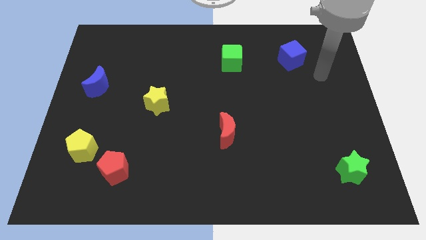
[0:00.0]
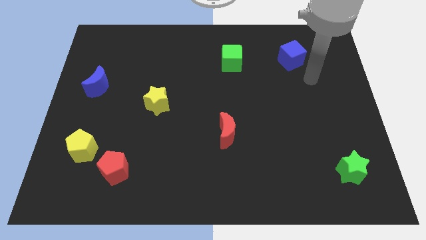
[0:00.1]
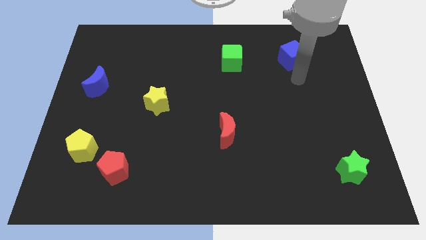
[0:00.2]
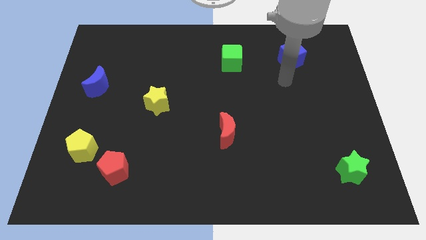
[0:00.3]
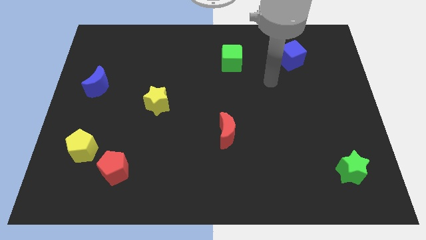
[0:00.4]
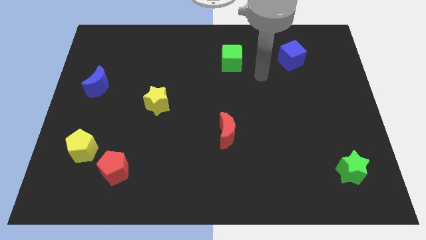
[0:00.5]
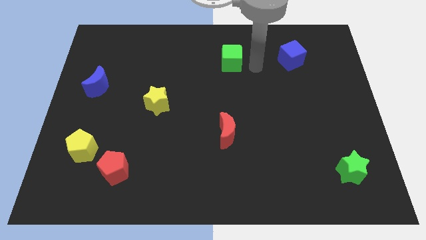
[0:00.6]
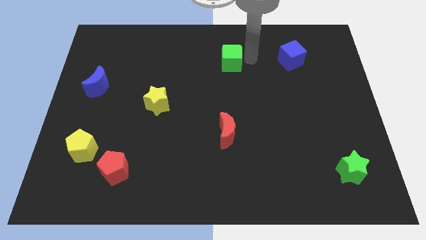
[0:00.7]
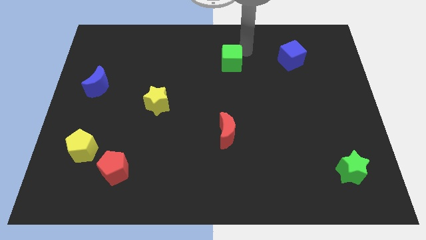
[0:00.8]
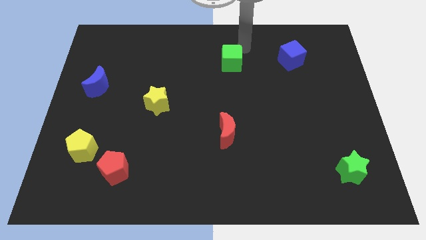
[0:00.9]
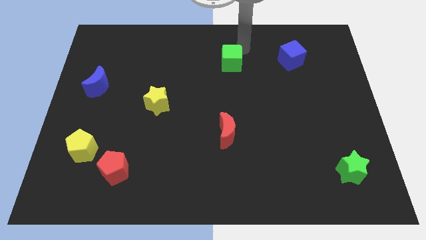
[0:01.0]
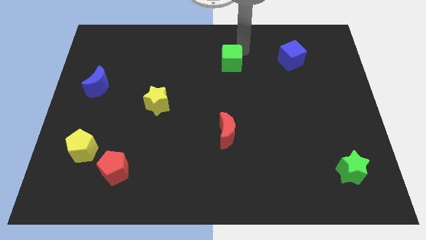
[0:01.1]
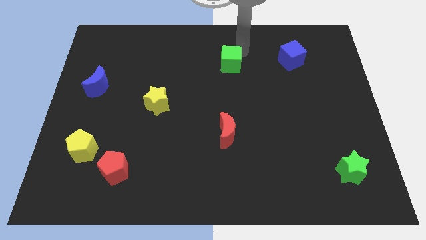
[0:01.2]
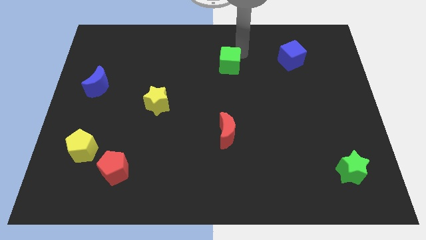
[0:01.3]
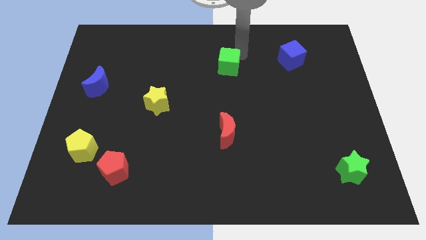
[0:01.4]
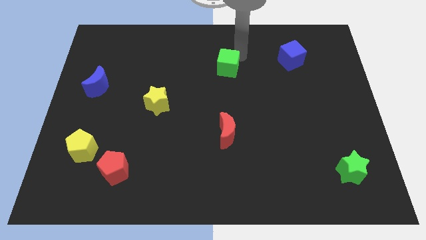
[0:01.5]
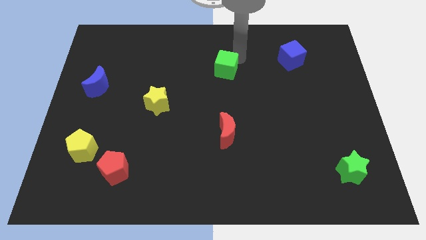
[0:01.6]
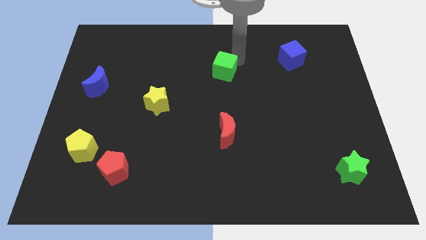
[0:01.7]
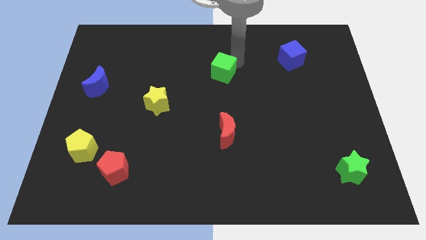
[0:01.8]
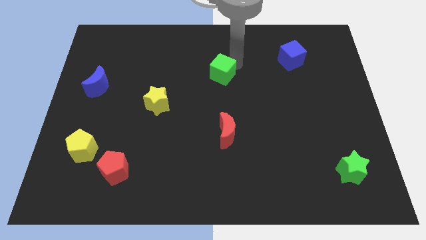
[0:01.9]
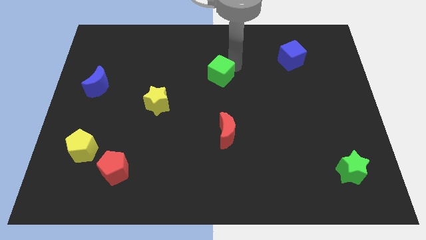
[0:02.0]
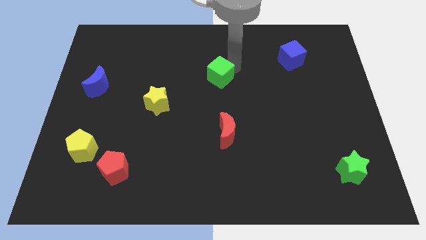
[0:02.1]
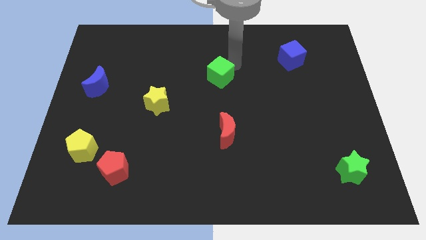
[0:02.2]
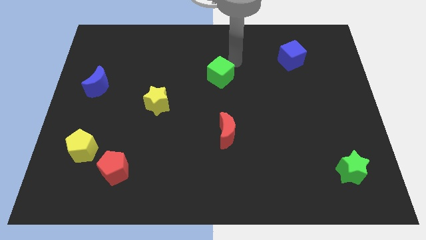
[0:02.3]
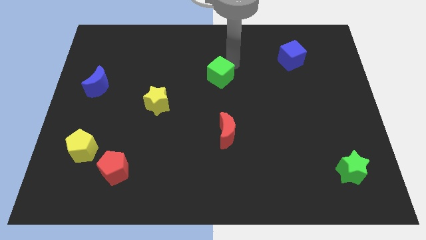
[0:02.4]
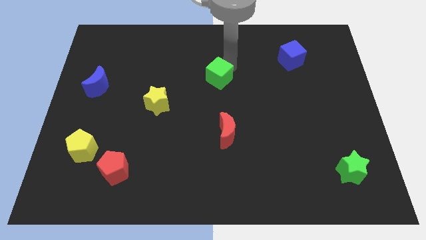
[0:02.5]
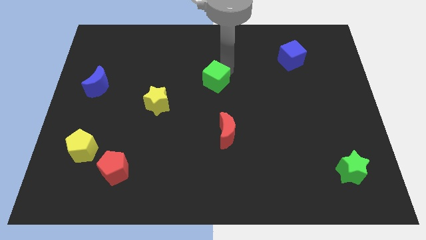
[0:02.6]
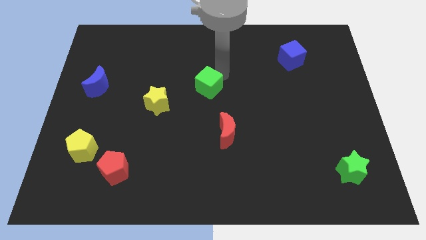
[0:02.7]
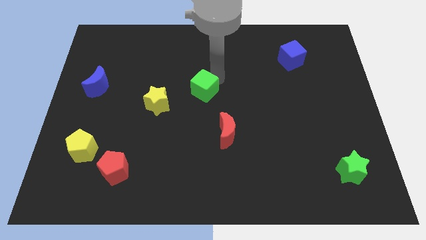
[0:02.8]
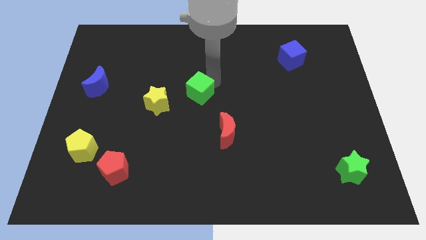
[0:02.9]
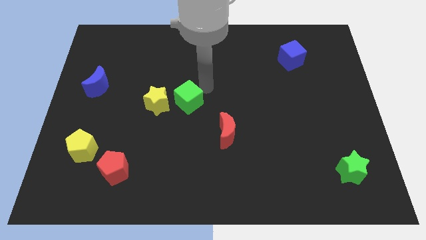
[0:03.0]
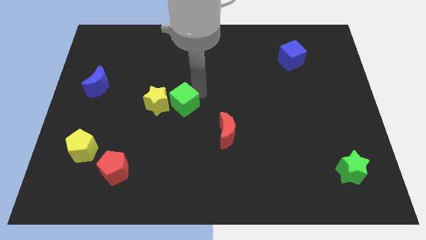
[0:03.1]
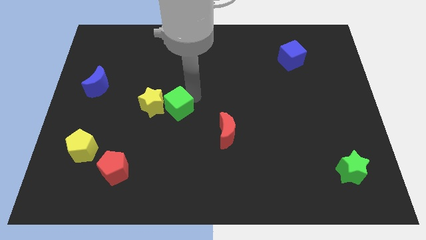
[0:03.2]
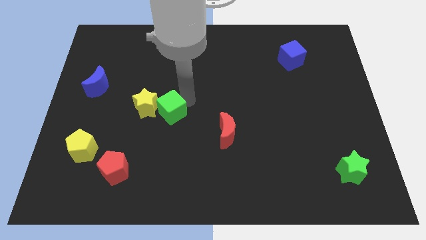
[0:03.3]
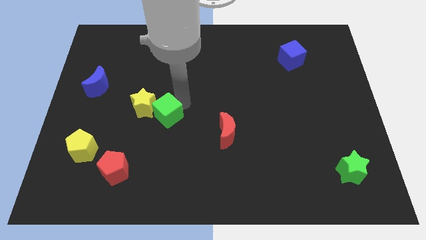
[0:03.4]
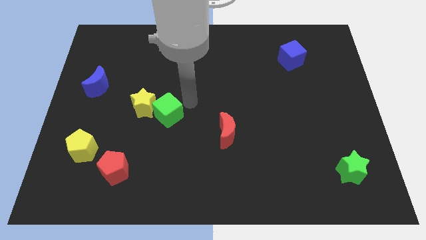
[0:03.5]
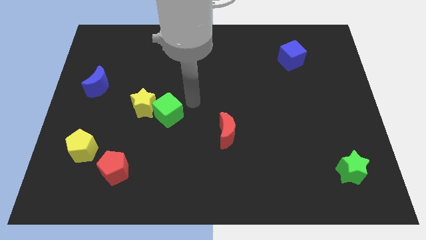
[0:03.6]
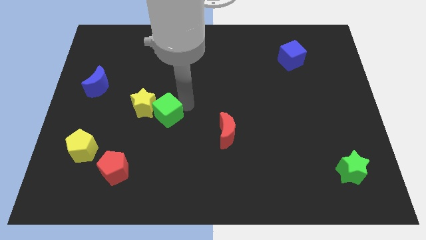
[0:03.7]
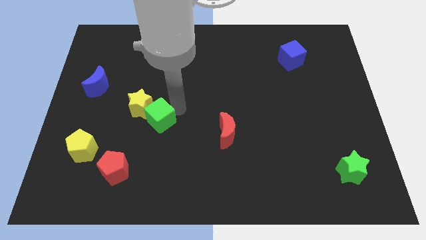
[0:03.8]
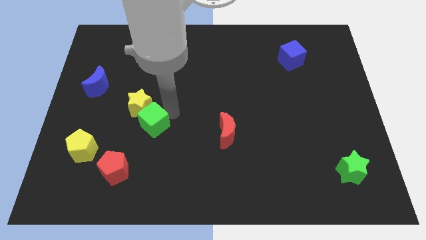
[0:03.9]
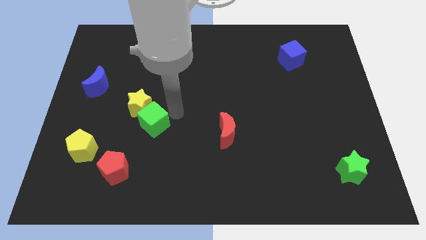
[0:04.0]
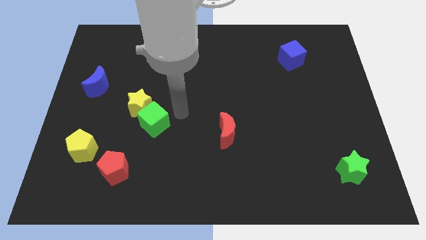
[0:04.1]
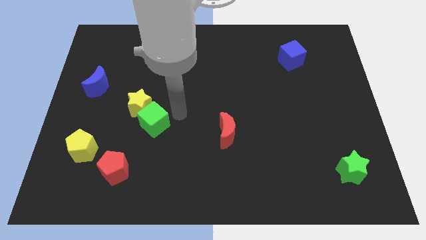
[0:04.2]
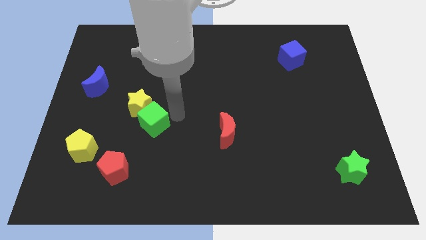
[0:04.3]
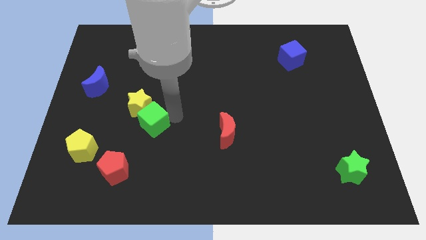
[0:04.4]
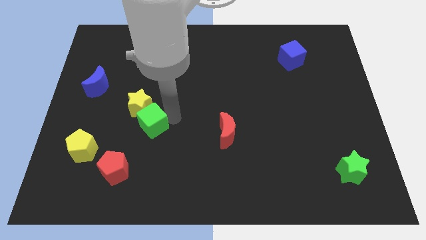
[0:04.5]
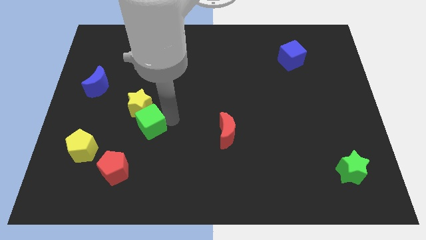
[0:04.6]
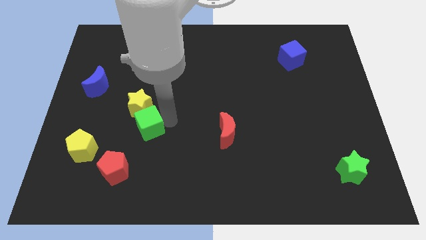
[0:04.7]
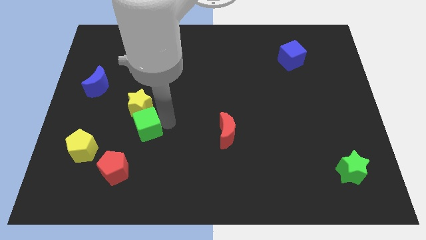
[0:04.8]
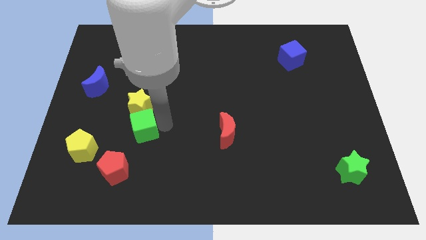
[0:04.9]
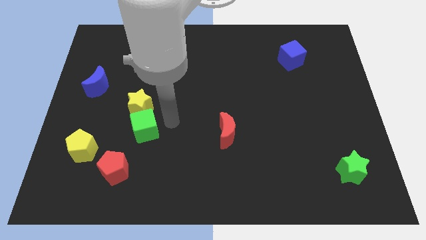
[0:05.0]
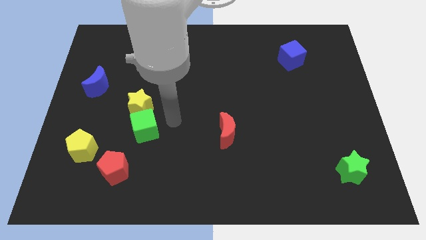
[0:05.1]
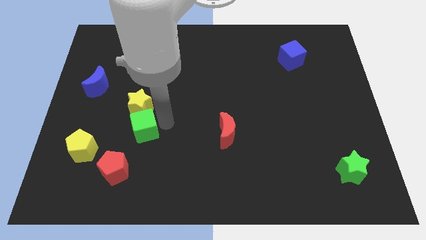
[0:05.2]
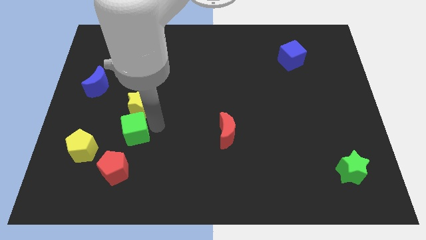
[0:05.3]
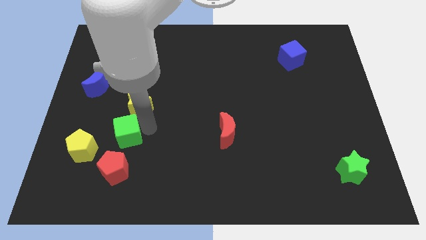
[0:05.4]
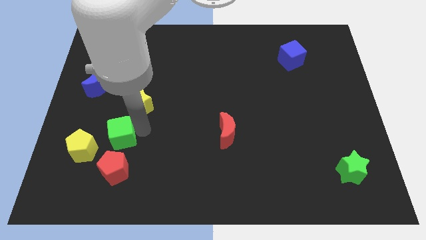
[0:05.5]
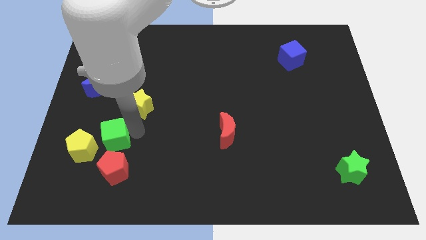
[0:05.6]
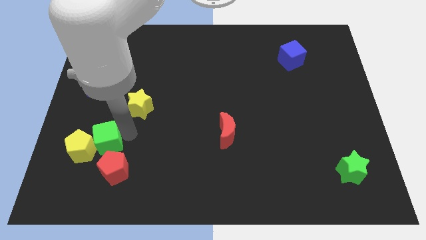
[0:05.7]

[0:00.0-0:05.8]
move the green cube next to the yellow pentagon

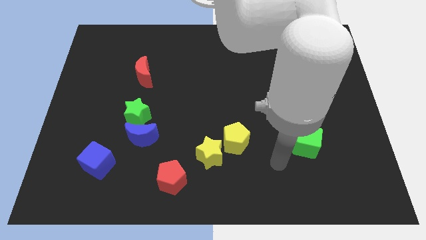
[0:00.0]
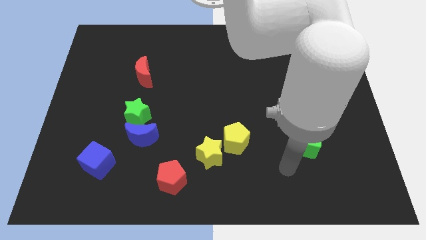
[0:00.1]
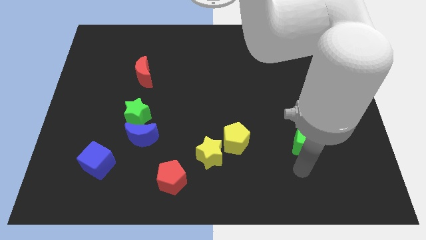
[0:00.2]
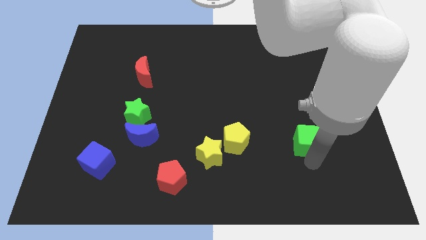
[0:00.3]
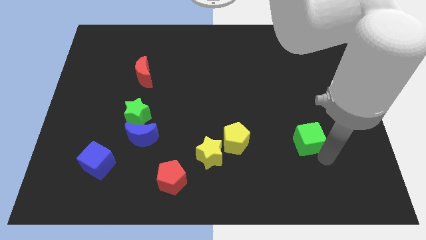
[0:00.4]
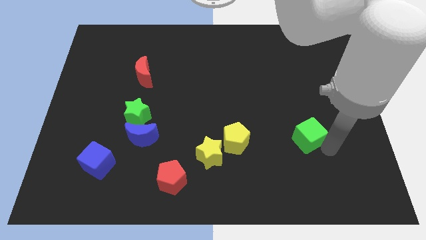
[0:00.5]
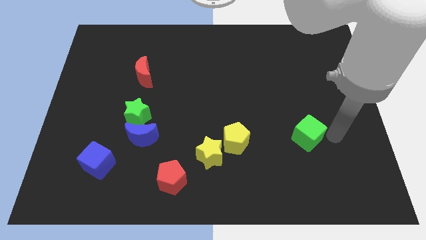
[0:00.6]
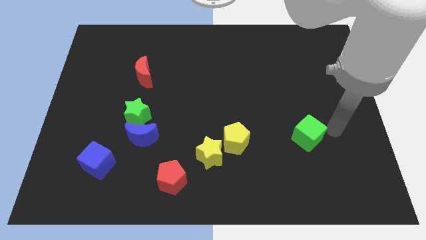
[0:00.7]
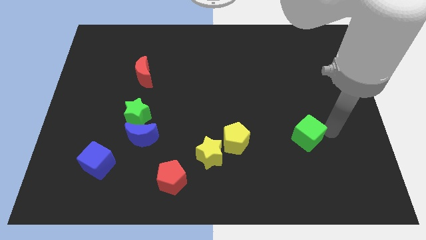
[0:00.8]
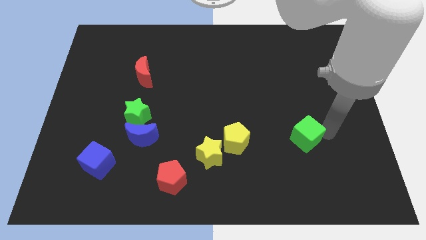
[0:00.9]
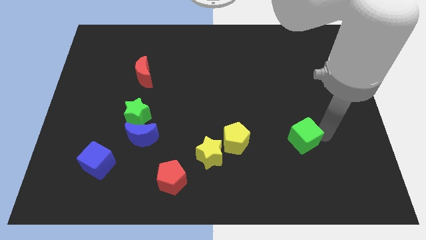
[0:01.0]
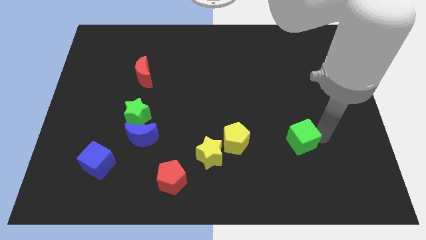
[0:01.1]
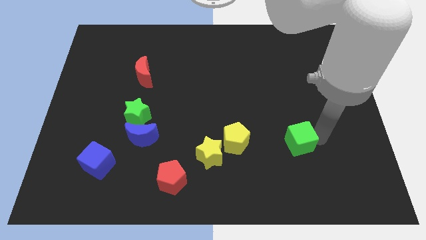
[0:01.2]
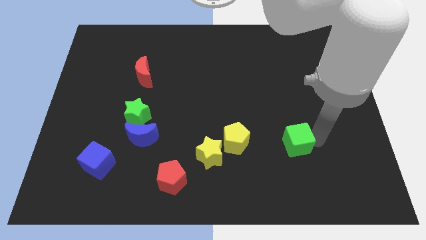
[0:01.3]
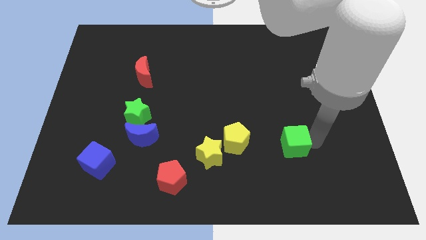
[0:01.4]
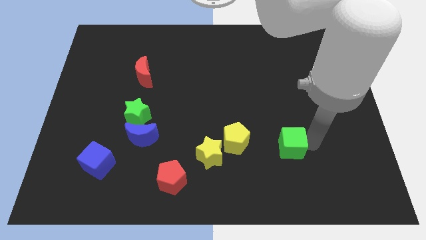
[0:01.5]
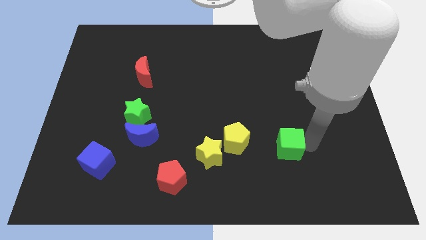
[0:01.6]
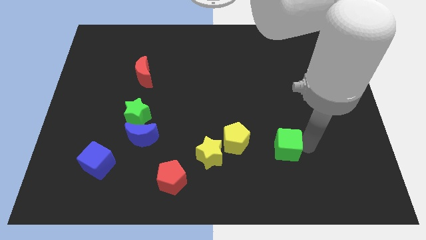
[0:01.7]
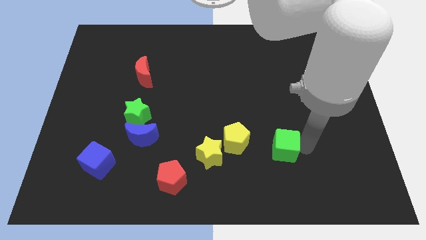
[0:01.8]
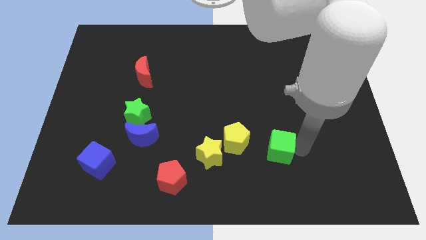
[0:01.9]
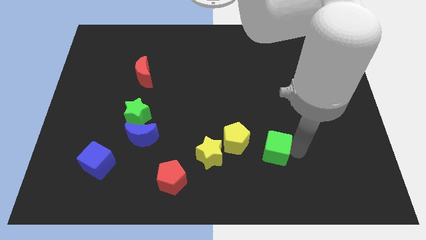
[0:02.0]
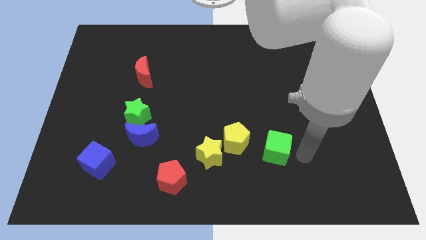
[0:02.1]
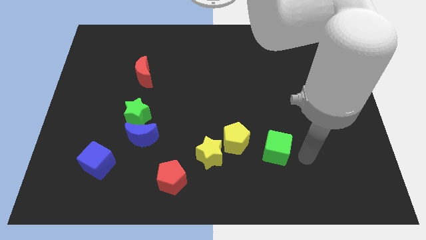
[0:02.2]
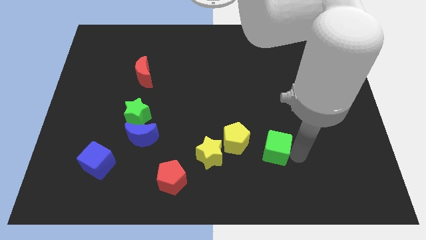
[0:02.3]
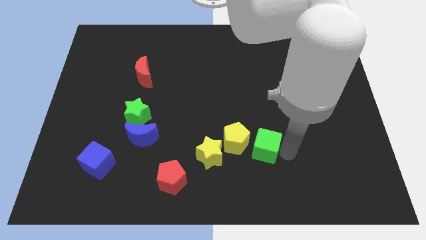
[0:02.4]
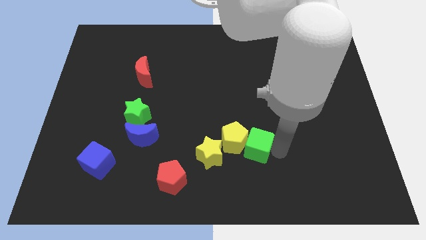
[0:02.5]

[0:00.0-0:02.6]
put the green cube to the yellow pentagon
